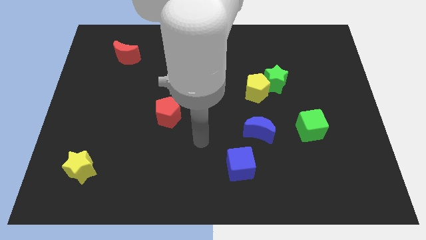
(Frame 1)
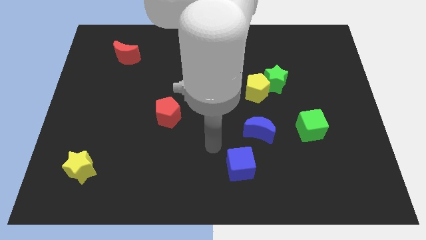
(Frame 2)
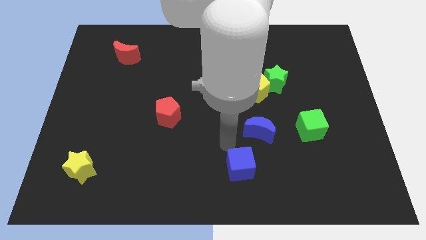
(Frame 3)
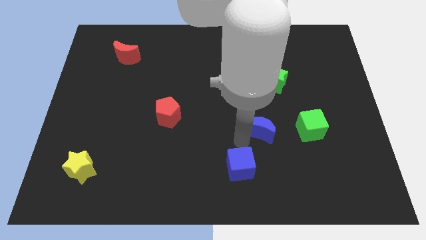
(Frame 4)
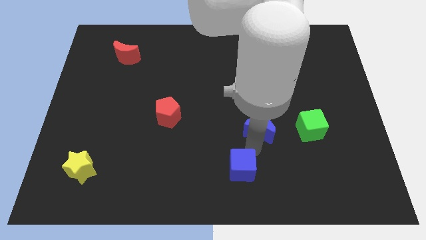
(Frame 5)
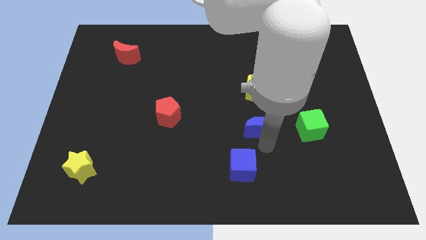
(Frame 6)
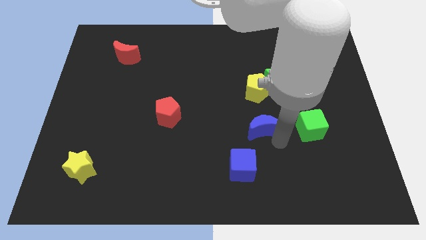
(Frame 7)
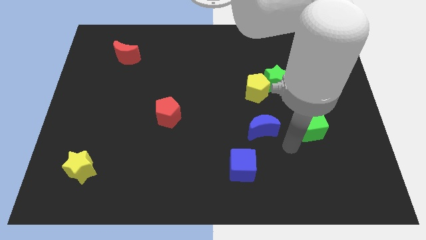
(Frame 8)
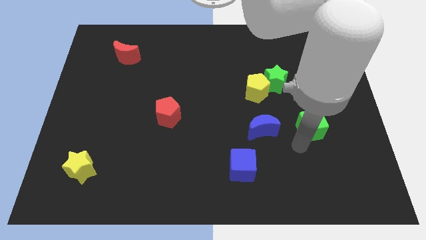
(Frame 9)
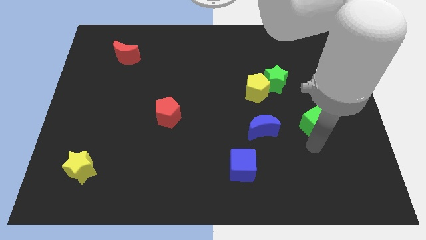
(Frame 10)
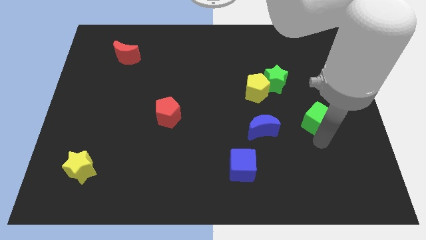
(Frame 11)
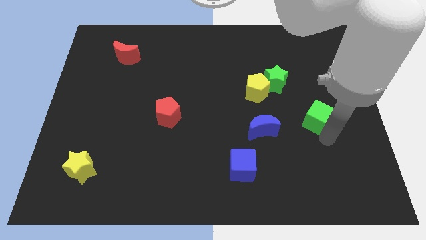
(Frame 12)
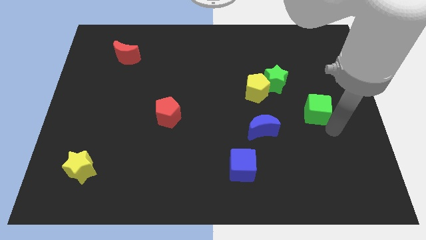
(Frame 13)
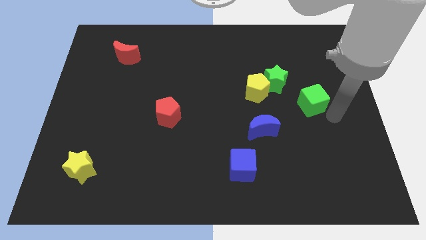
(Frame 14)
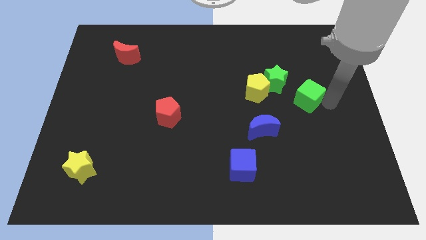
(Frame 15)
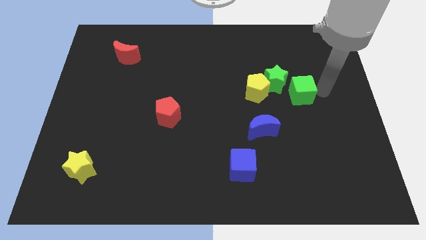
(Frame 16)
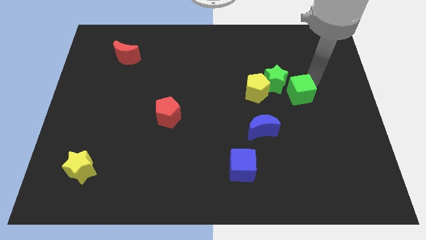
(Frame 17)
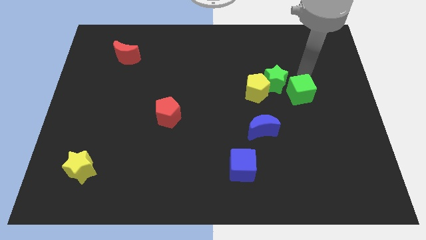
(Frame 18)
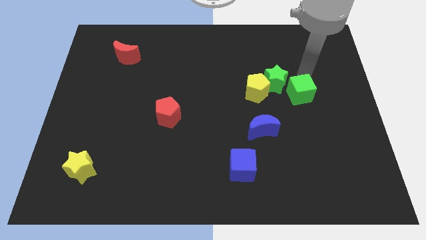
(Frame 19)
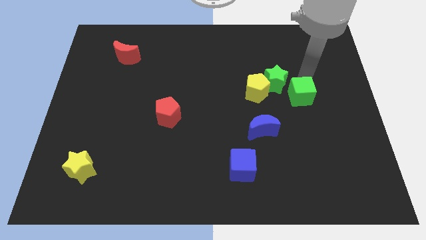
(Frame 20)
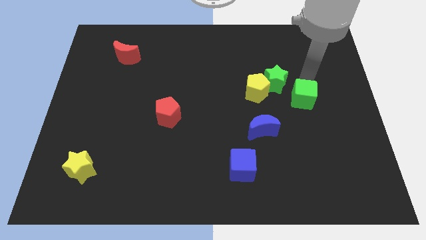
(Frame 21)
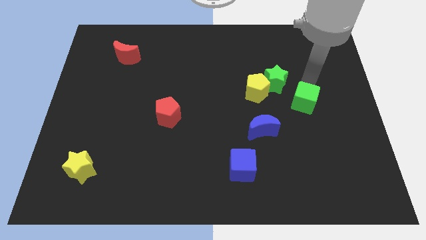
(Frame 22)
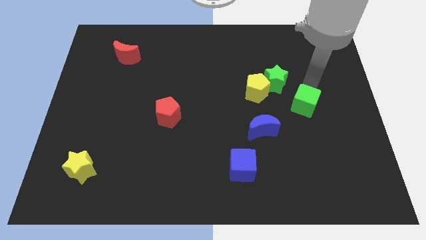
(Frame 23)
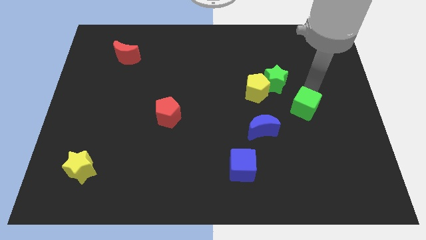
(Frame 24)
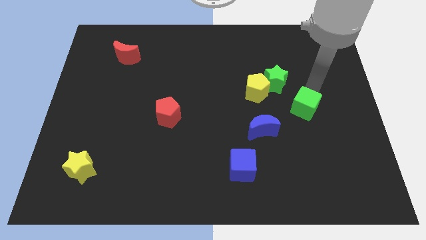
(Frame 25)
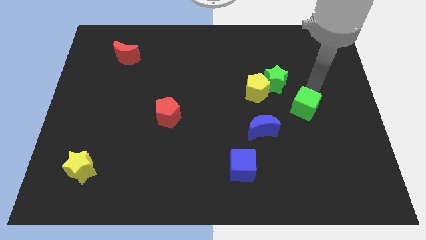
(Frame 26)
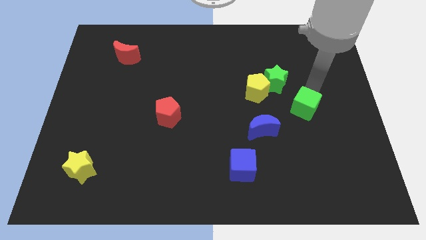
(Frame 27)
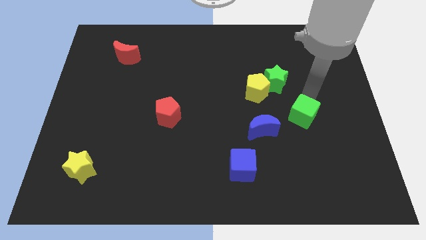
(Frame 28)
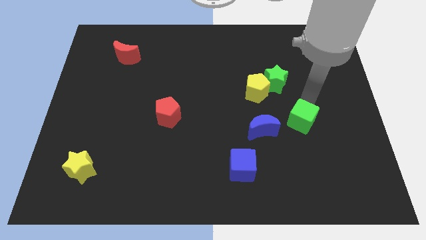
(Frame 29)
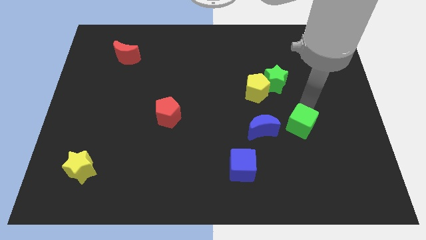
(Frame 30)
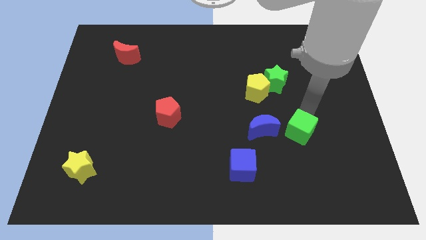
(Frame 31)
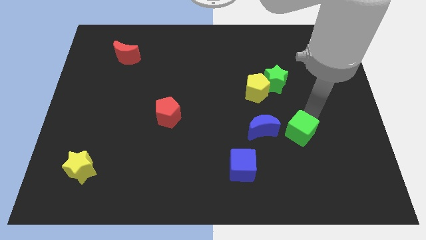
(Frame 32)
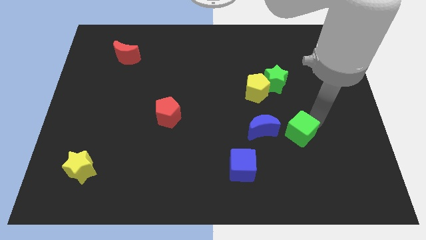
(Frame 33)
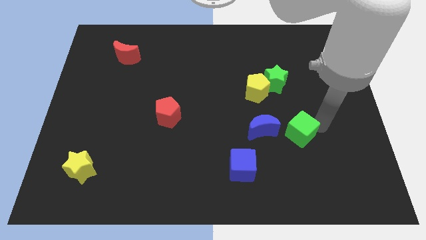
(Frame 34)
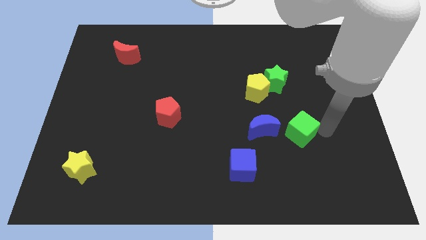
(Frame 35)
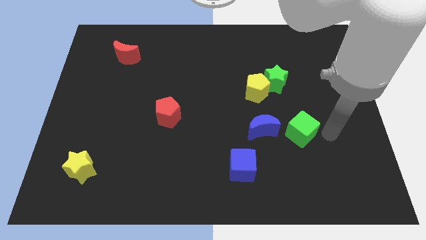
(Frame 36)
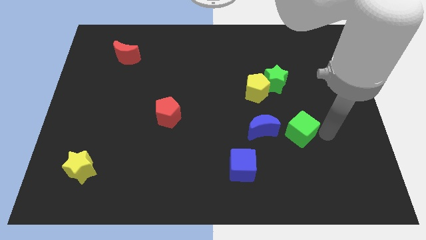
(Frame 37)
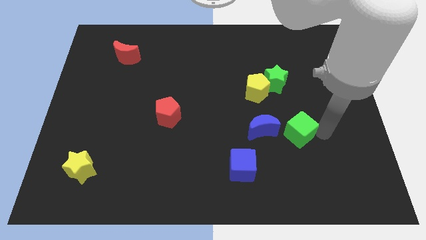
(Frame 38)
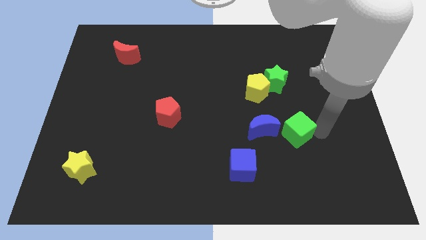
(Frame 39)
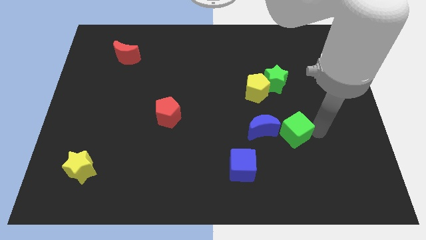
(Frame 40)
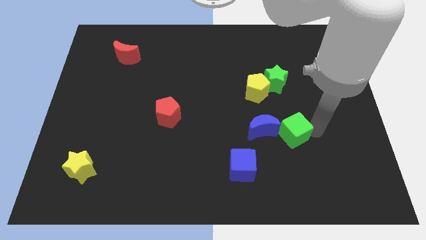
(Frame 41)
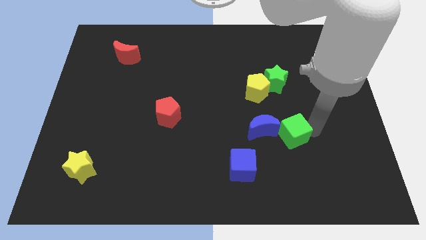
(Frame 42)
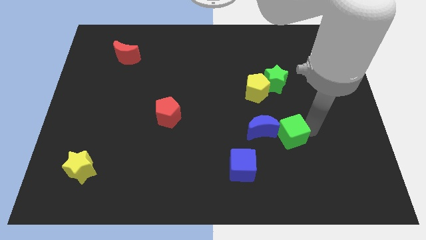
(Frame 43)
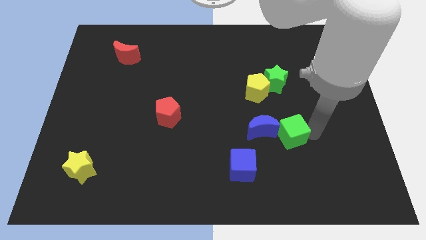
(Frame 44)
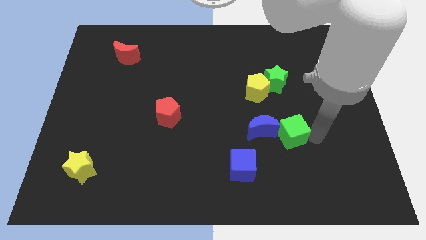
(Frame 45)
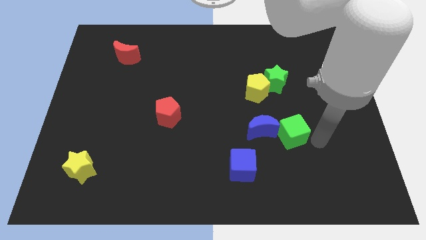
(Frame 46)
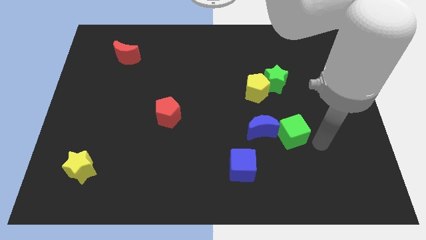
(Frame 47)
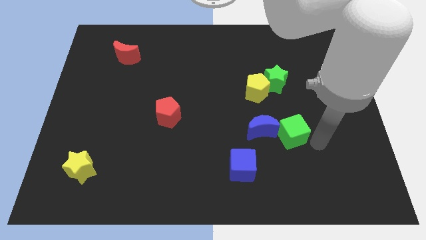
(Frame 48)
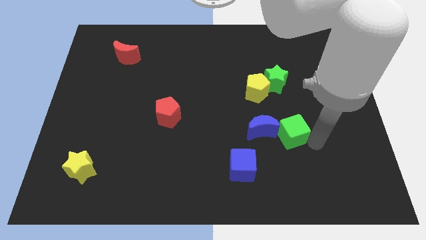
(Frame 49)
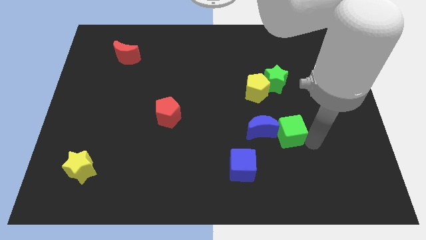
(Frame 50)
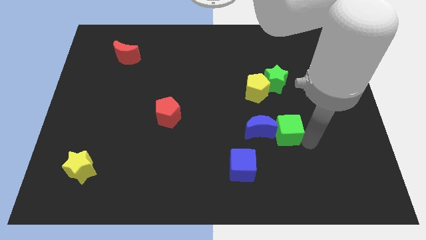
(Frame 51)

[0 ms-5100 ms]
slide the green cube close to the blue moon

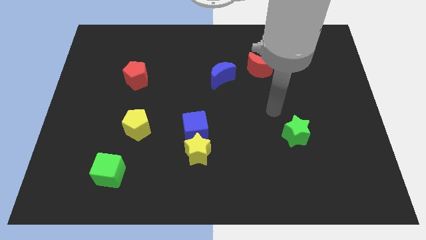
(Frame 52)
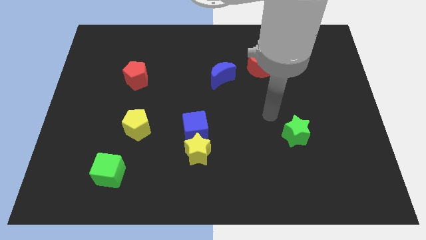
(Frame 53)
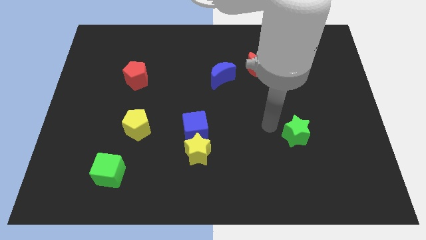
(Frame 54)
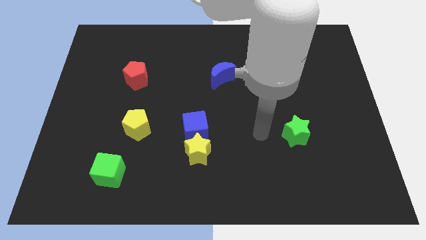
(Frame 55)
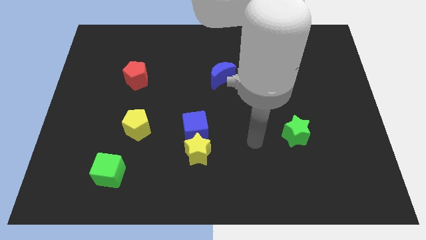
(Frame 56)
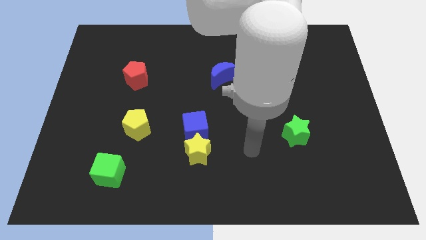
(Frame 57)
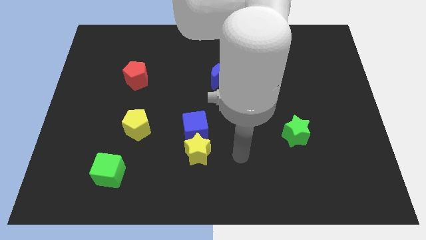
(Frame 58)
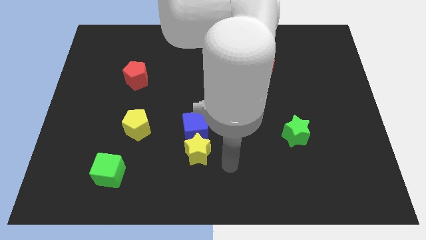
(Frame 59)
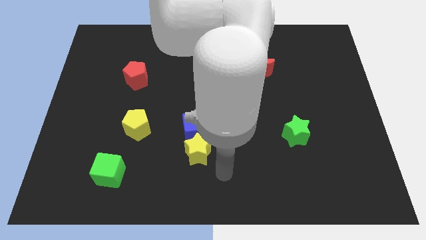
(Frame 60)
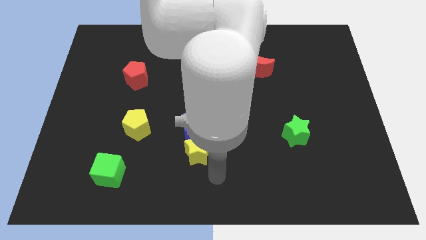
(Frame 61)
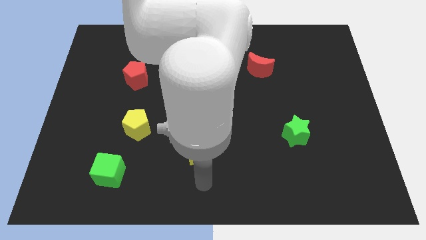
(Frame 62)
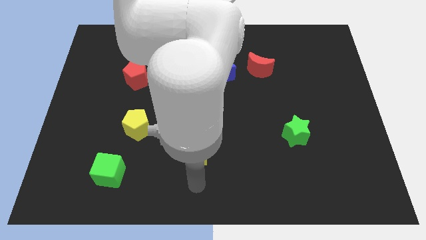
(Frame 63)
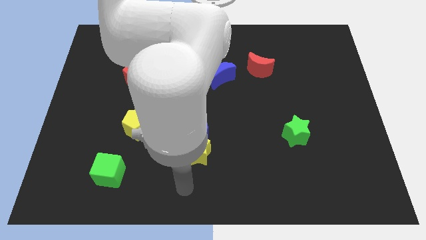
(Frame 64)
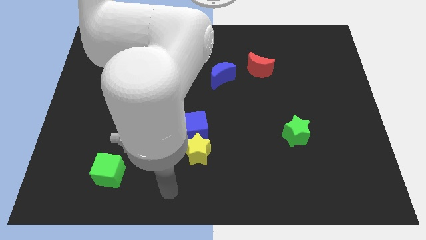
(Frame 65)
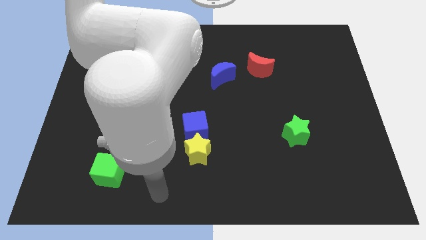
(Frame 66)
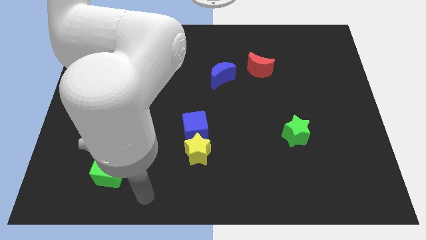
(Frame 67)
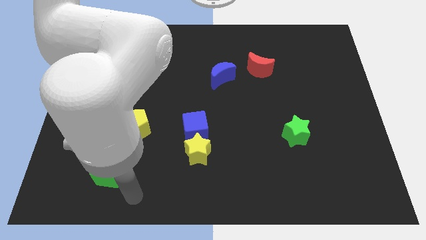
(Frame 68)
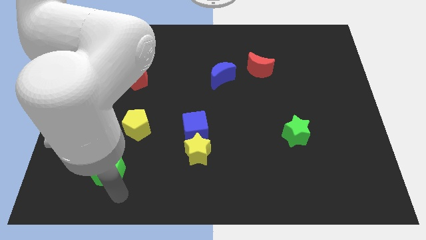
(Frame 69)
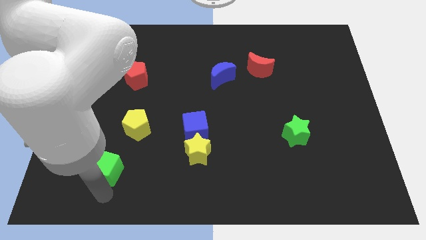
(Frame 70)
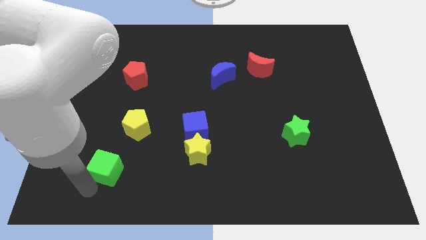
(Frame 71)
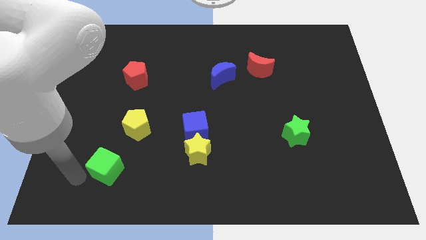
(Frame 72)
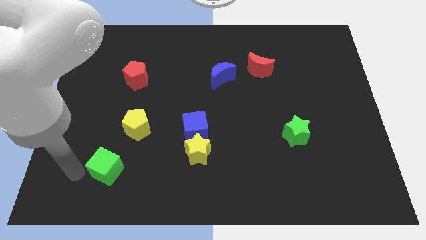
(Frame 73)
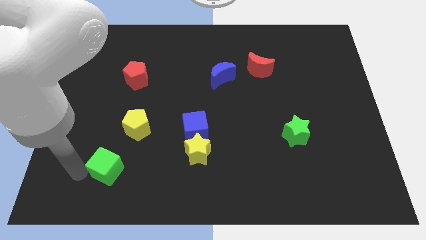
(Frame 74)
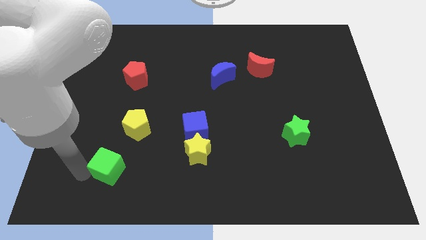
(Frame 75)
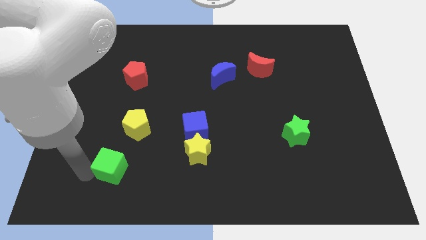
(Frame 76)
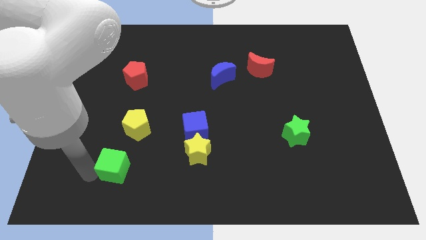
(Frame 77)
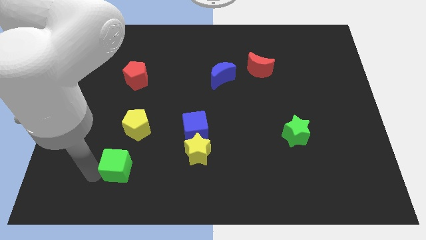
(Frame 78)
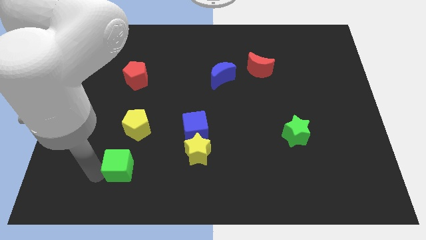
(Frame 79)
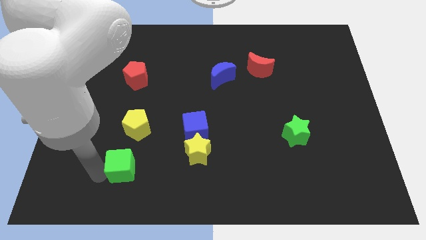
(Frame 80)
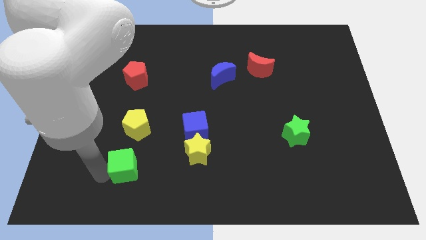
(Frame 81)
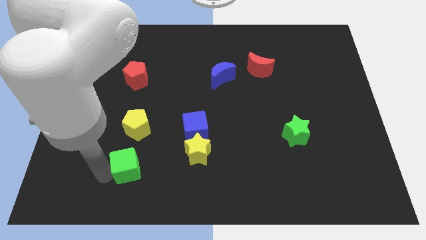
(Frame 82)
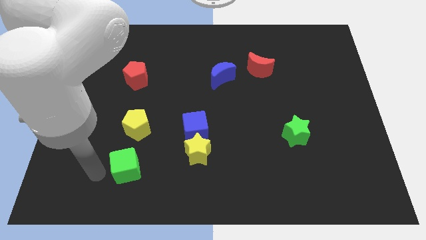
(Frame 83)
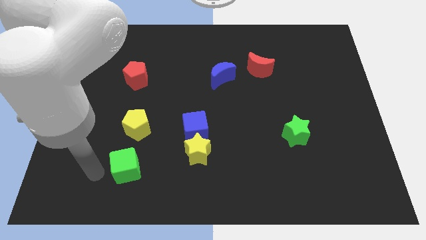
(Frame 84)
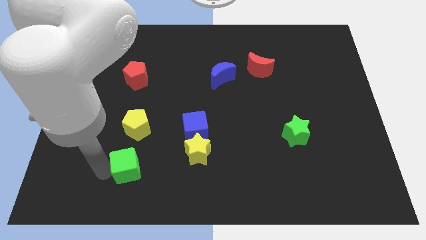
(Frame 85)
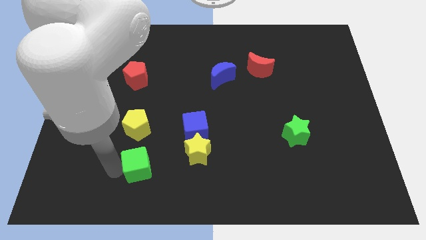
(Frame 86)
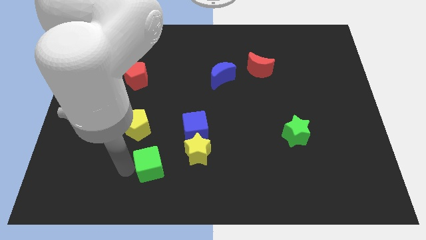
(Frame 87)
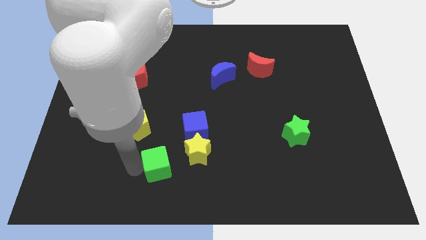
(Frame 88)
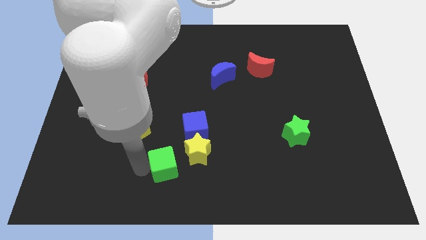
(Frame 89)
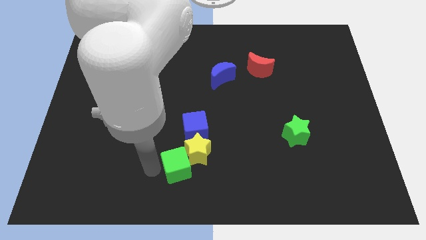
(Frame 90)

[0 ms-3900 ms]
slide the green cube close to the yellow star
